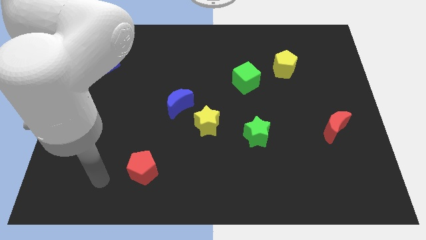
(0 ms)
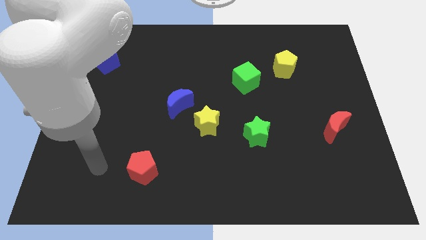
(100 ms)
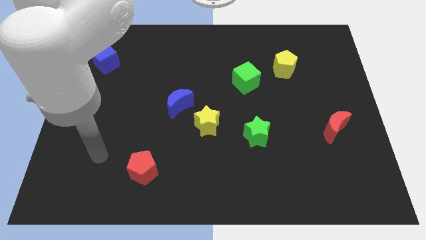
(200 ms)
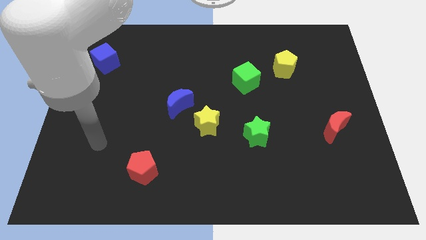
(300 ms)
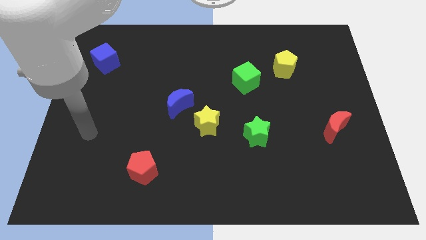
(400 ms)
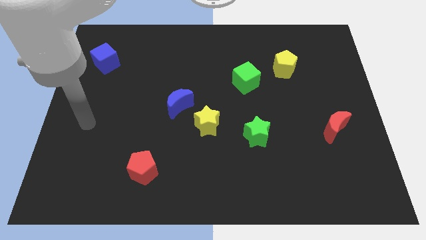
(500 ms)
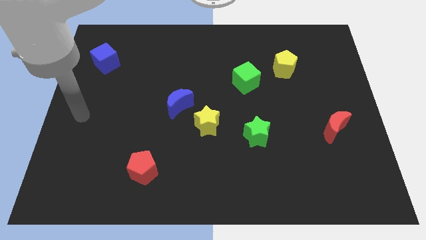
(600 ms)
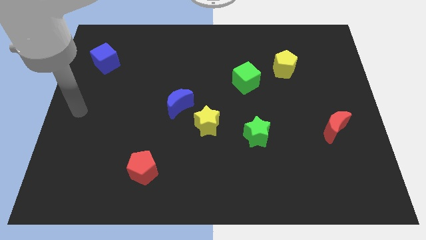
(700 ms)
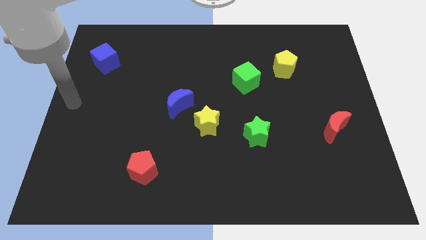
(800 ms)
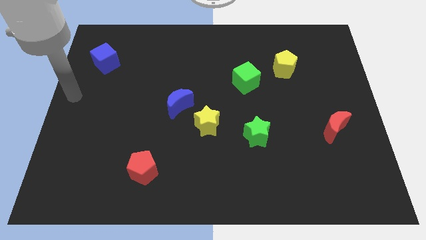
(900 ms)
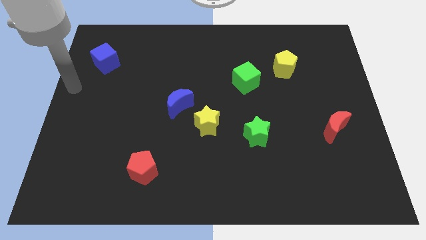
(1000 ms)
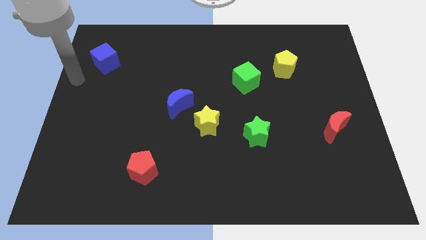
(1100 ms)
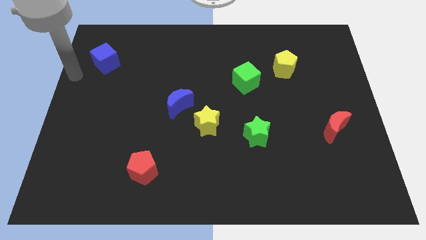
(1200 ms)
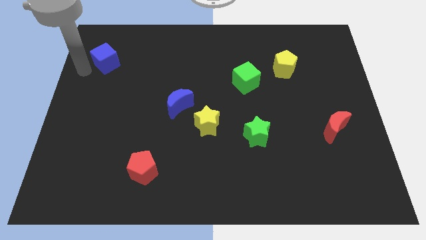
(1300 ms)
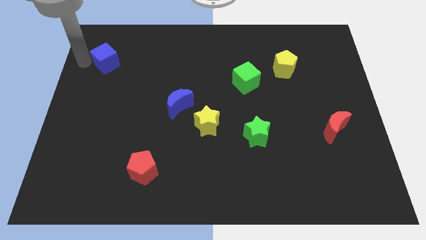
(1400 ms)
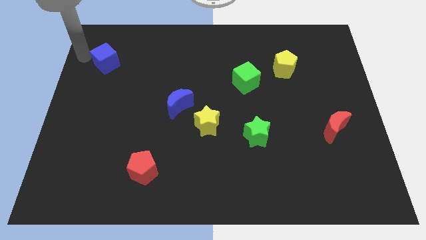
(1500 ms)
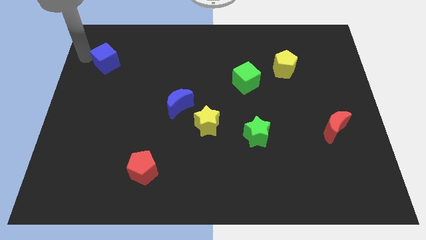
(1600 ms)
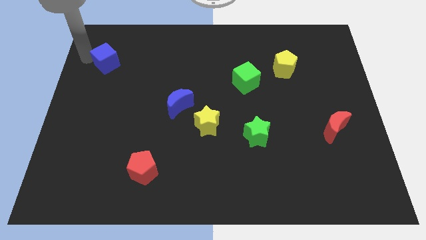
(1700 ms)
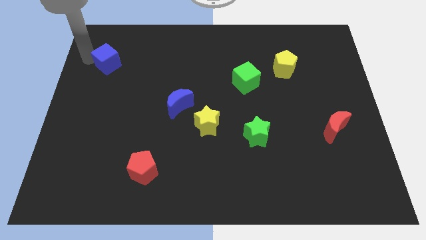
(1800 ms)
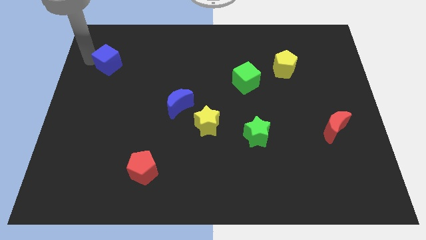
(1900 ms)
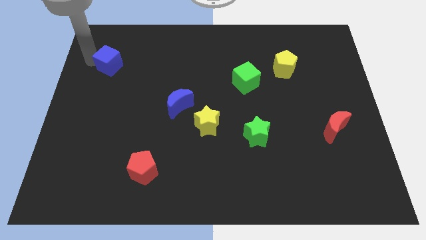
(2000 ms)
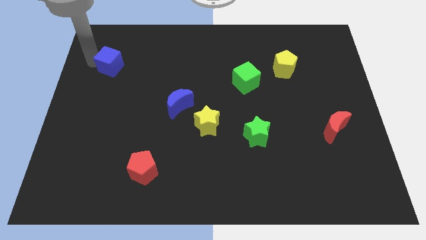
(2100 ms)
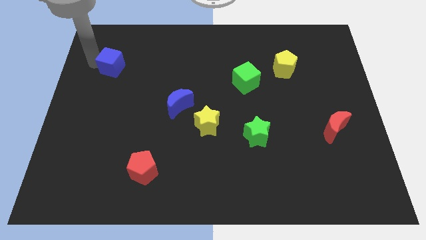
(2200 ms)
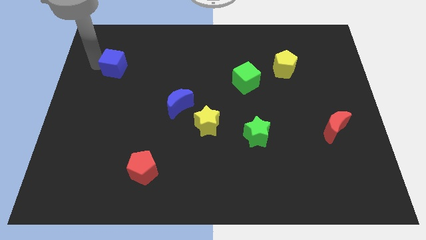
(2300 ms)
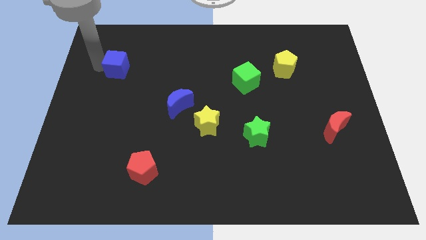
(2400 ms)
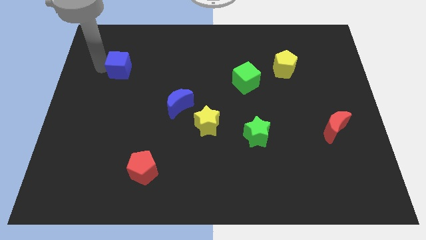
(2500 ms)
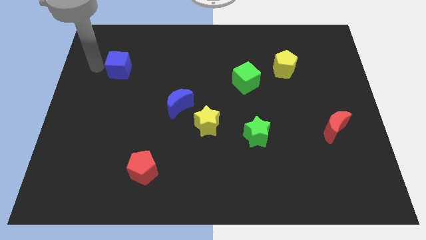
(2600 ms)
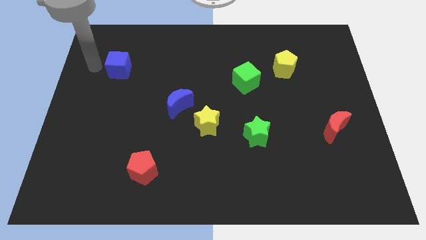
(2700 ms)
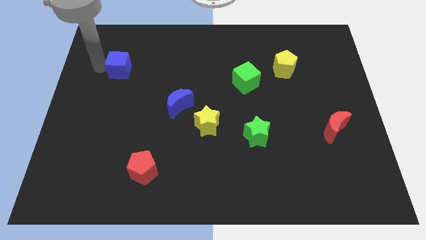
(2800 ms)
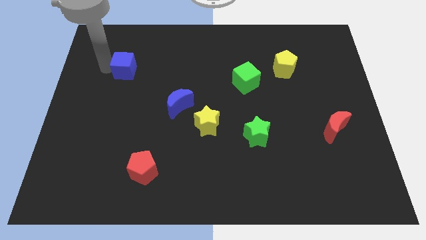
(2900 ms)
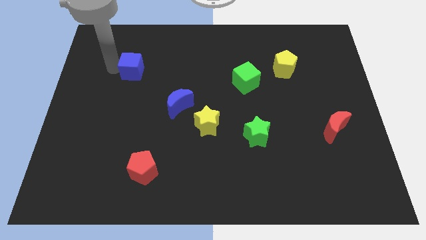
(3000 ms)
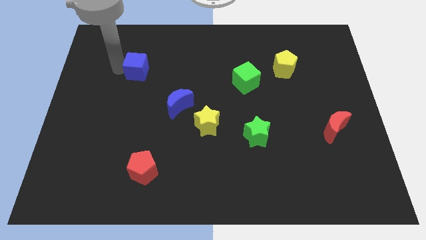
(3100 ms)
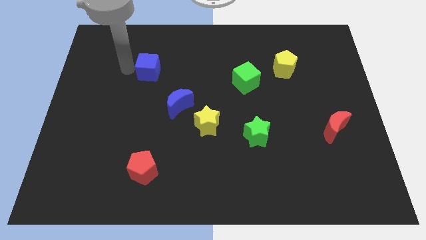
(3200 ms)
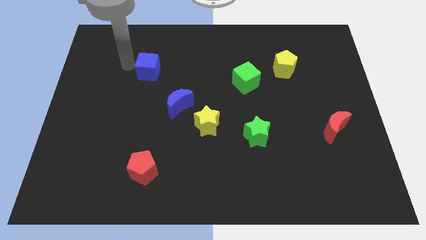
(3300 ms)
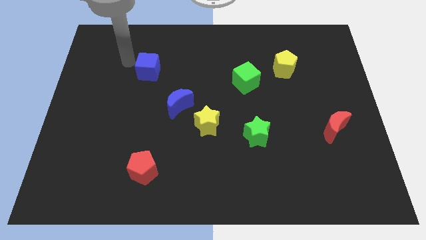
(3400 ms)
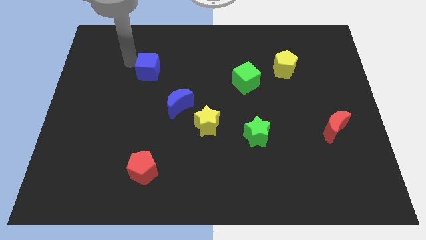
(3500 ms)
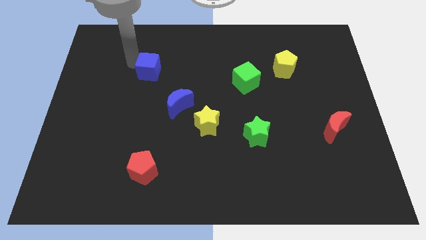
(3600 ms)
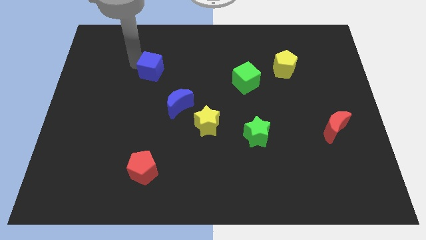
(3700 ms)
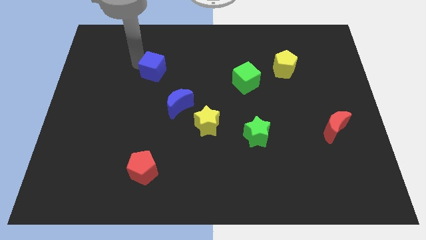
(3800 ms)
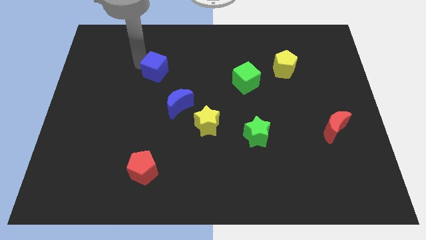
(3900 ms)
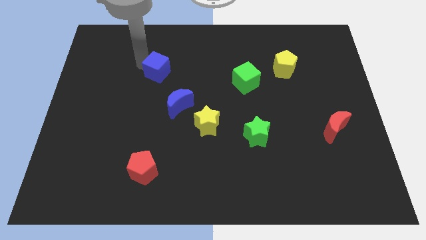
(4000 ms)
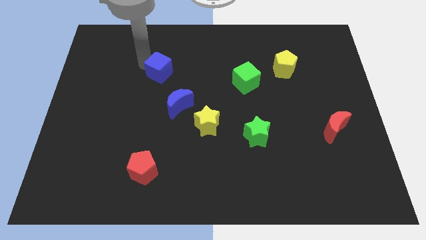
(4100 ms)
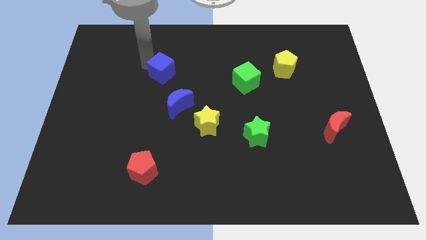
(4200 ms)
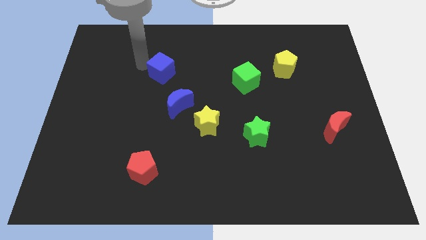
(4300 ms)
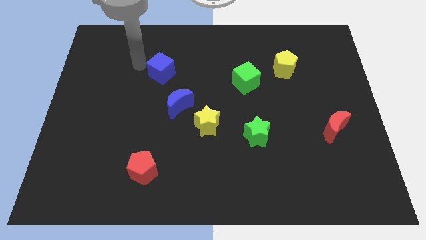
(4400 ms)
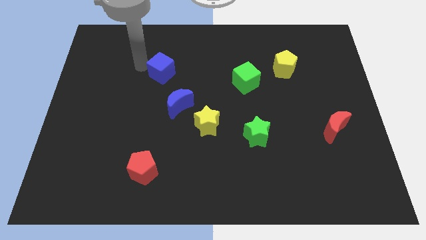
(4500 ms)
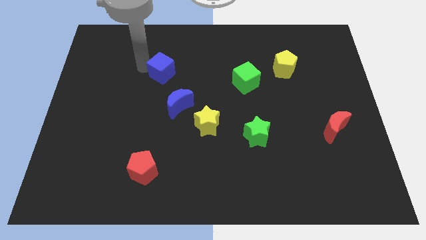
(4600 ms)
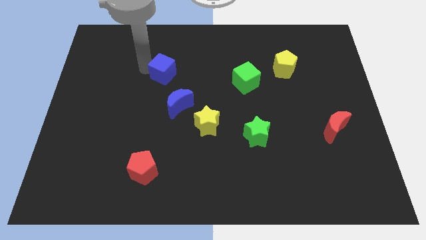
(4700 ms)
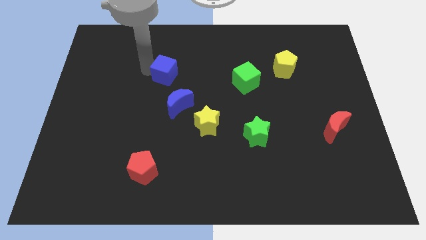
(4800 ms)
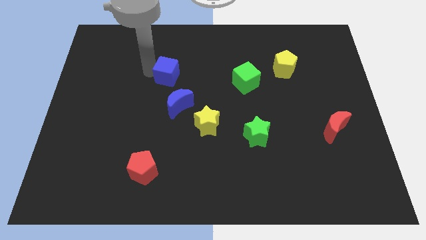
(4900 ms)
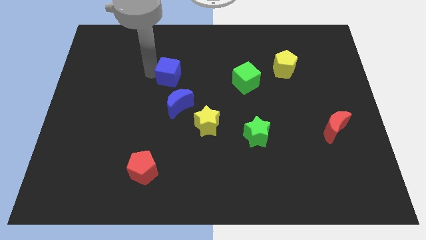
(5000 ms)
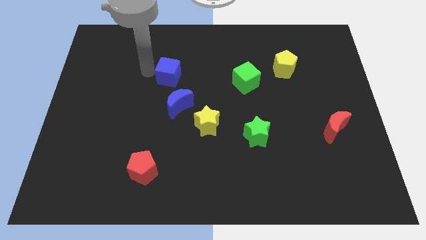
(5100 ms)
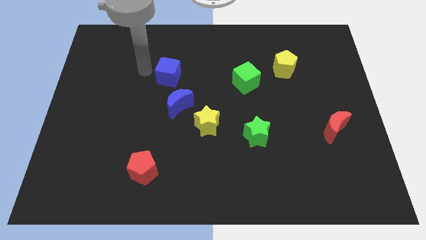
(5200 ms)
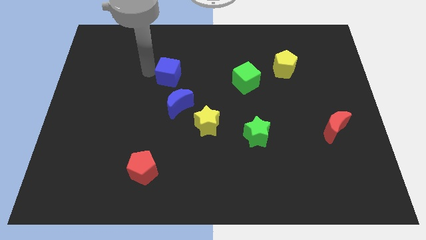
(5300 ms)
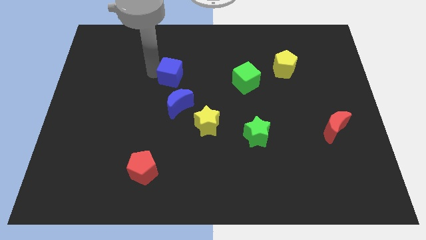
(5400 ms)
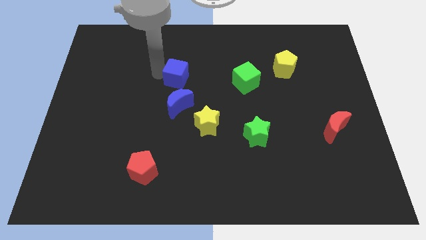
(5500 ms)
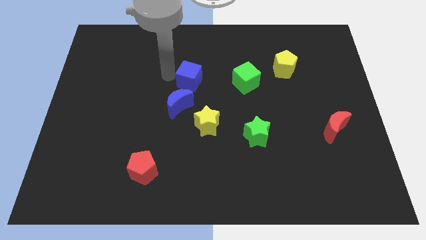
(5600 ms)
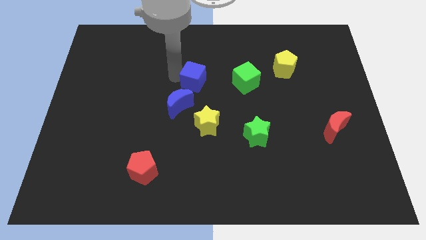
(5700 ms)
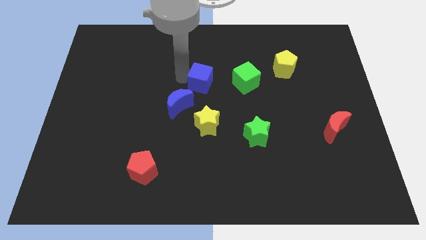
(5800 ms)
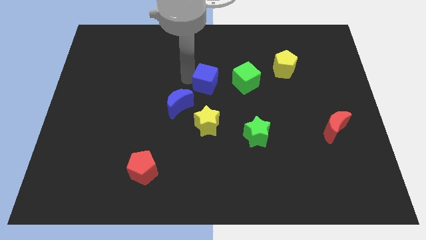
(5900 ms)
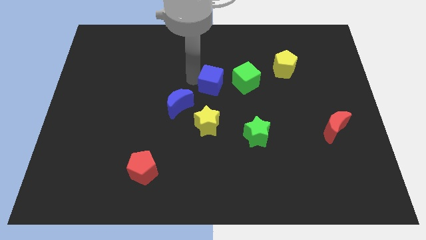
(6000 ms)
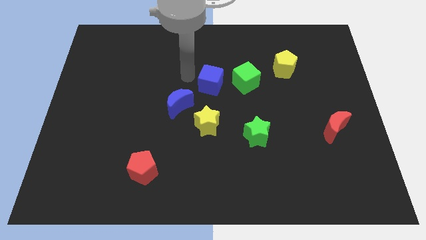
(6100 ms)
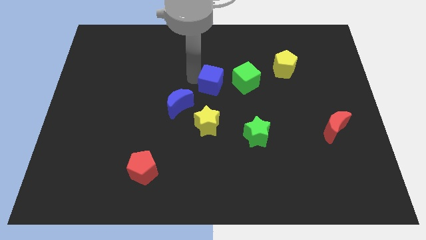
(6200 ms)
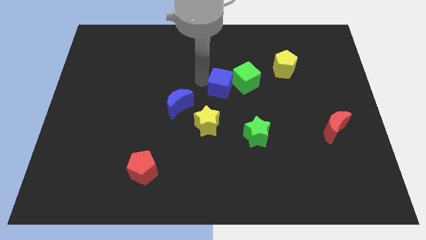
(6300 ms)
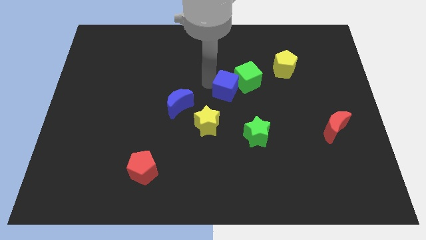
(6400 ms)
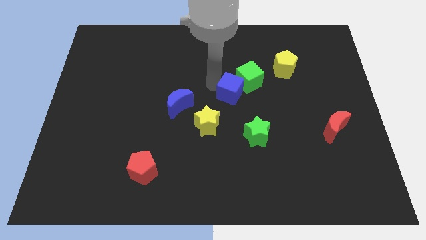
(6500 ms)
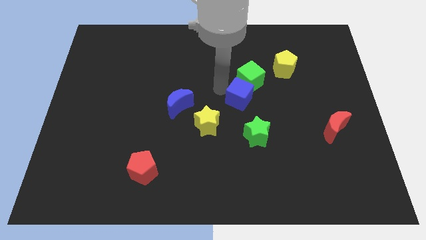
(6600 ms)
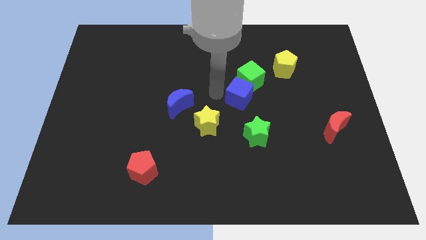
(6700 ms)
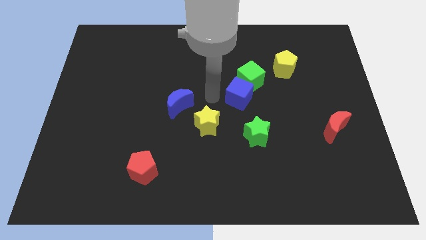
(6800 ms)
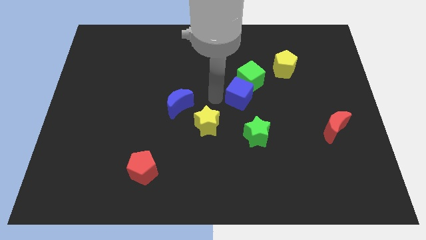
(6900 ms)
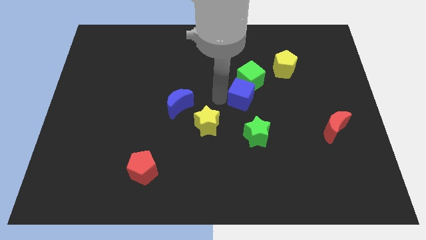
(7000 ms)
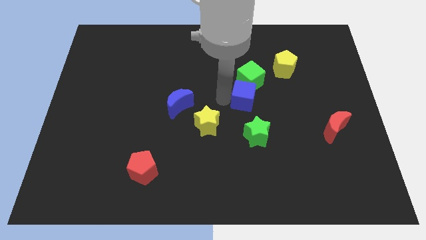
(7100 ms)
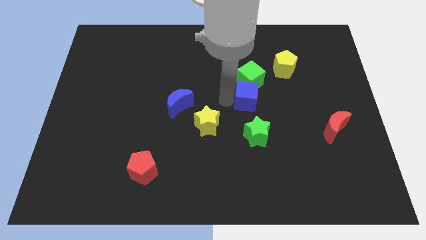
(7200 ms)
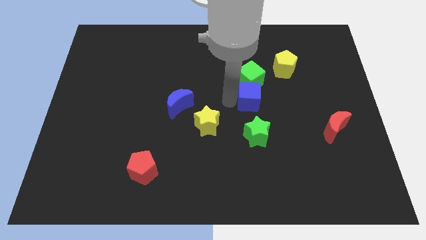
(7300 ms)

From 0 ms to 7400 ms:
slide the blue cube to the bottom right of the green cube
